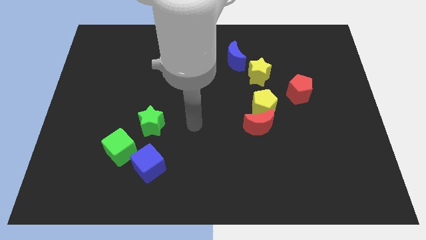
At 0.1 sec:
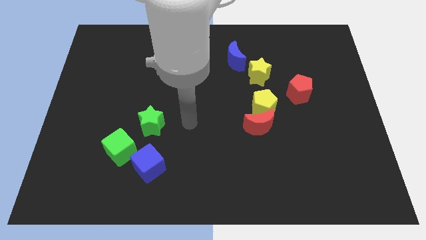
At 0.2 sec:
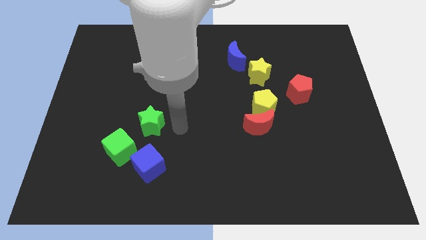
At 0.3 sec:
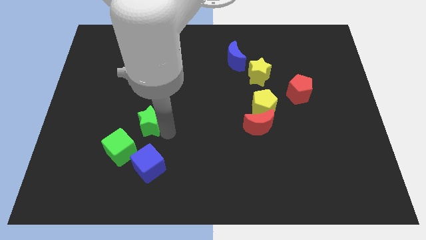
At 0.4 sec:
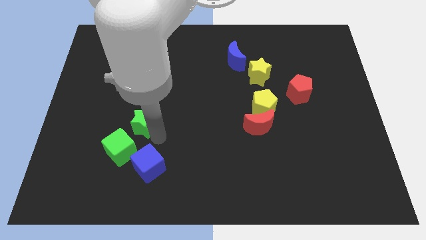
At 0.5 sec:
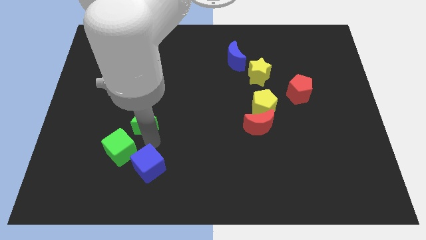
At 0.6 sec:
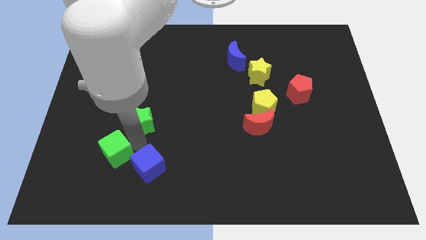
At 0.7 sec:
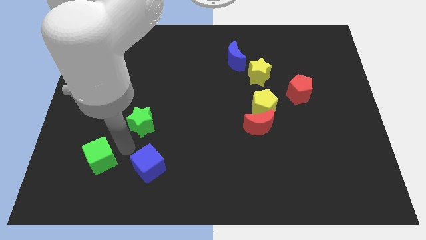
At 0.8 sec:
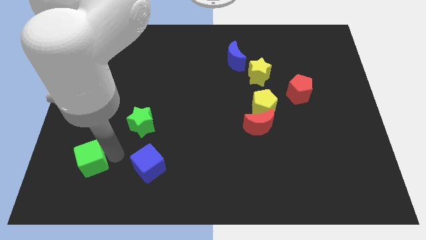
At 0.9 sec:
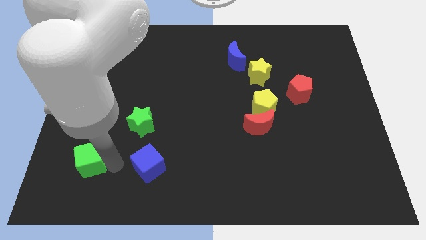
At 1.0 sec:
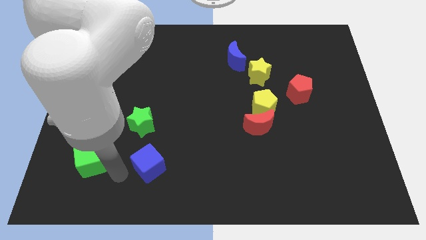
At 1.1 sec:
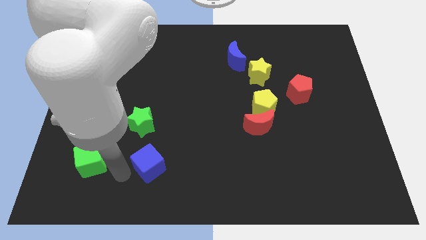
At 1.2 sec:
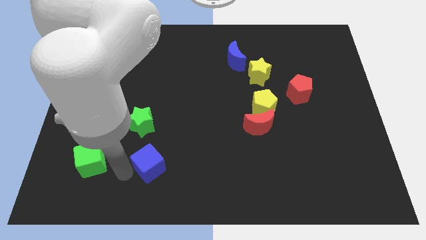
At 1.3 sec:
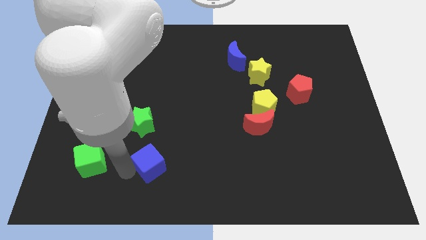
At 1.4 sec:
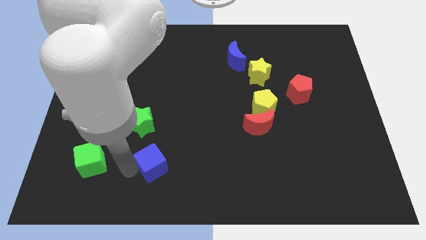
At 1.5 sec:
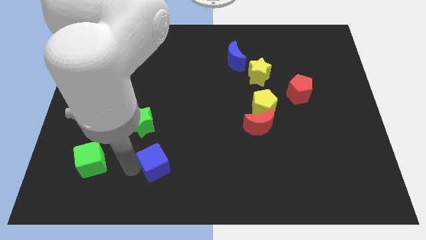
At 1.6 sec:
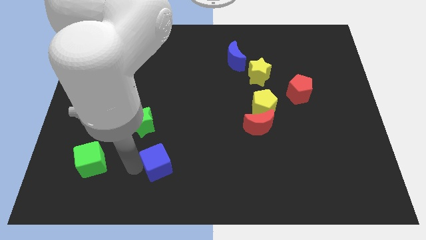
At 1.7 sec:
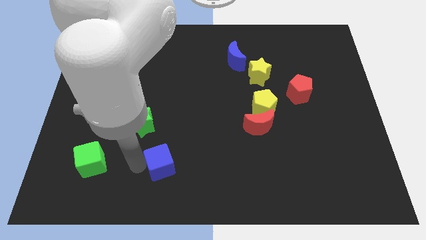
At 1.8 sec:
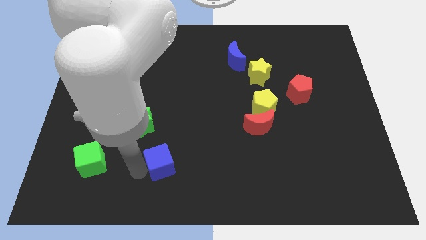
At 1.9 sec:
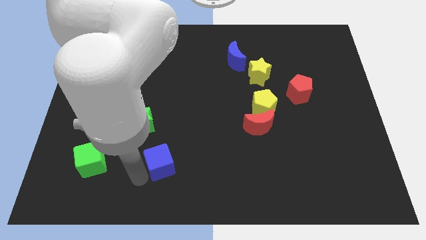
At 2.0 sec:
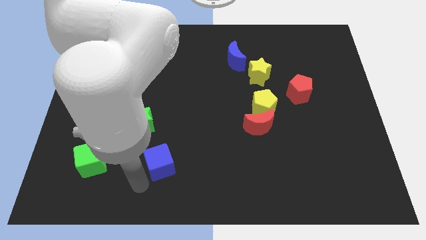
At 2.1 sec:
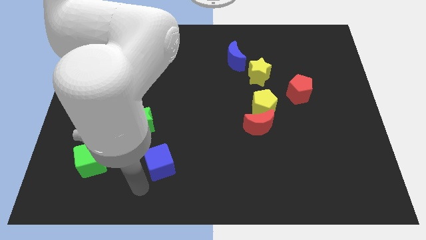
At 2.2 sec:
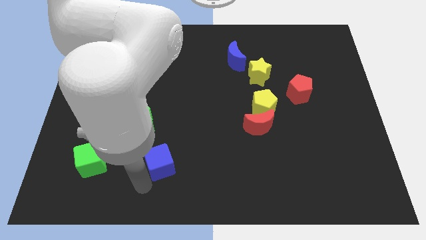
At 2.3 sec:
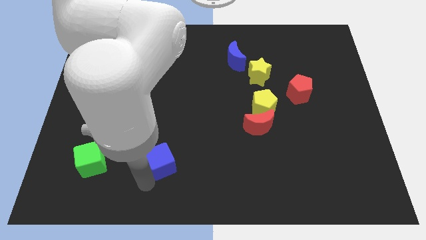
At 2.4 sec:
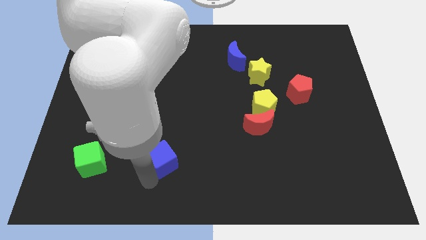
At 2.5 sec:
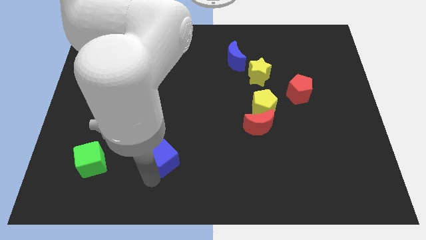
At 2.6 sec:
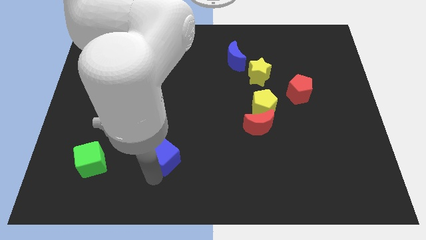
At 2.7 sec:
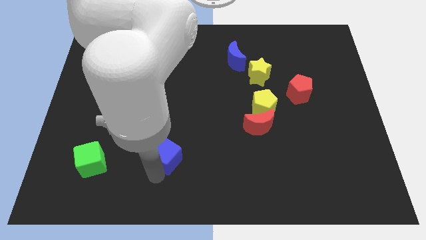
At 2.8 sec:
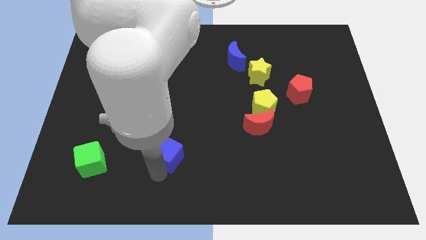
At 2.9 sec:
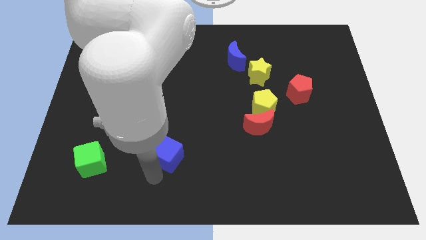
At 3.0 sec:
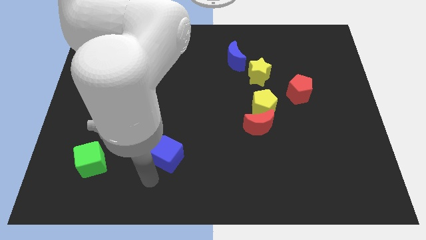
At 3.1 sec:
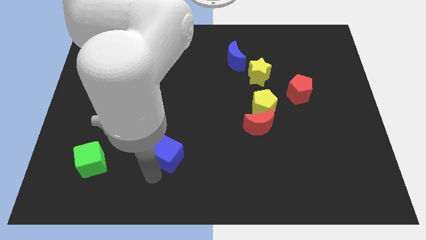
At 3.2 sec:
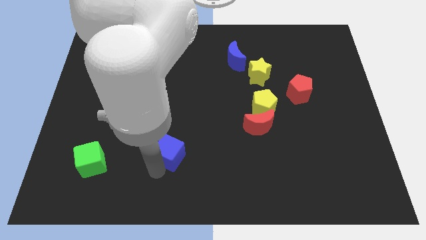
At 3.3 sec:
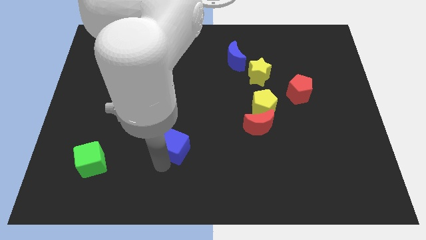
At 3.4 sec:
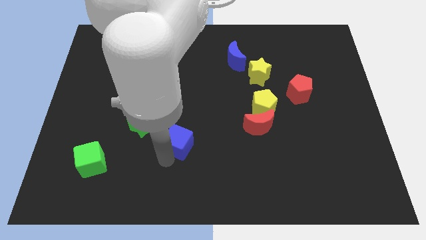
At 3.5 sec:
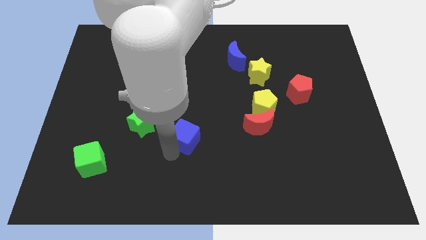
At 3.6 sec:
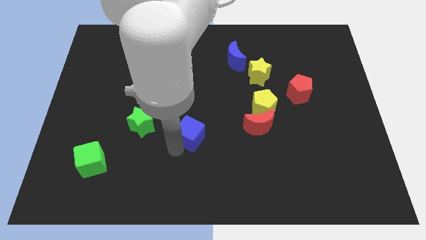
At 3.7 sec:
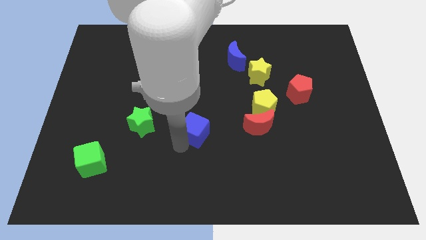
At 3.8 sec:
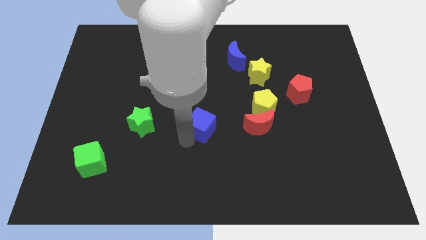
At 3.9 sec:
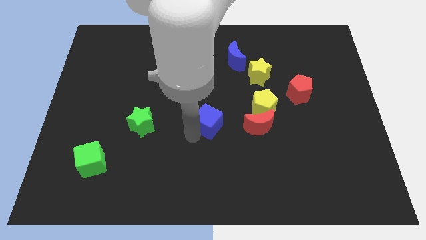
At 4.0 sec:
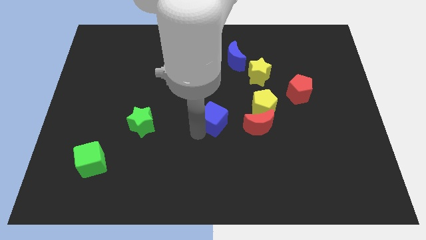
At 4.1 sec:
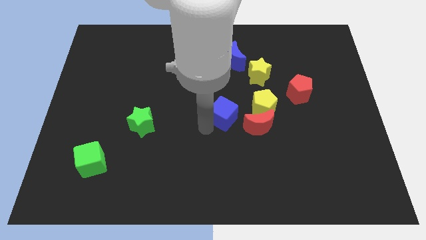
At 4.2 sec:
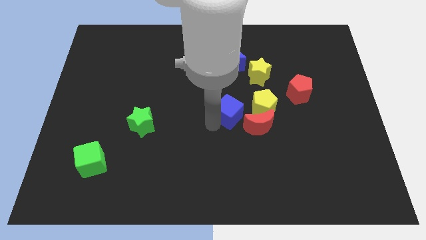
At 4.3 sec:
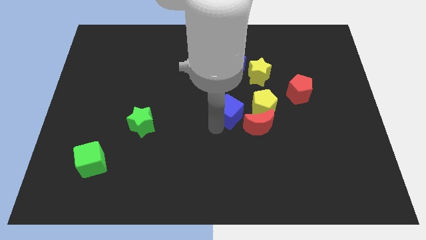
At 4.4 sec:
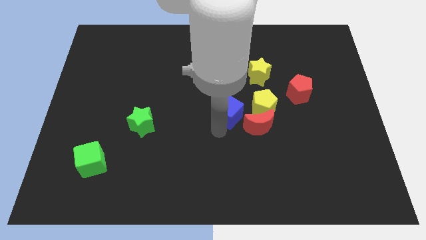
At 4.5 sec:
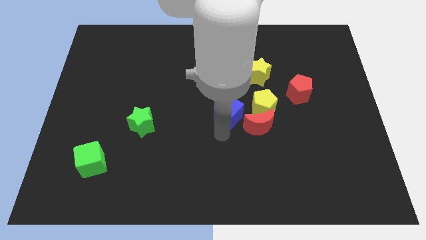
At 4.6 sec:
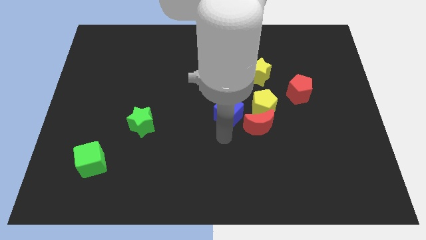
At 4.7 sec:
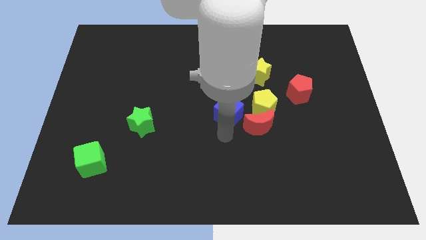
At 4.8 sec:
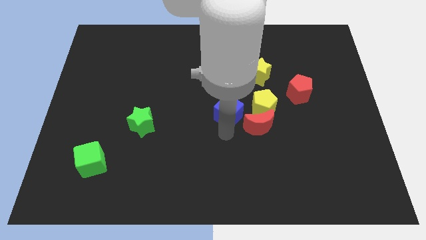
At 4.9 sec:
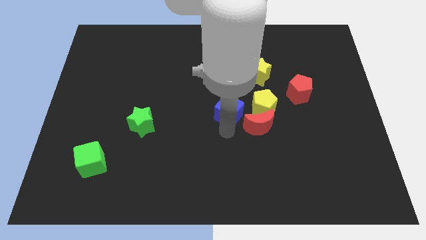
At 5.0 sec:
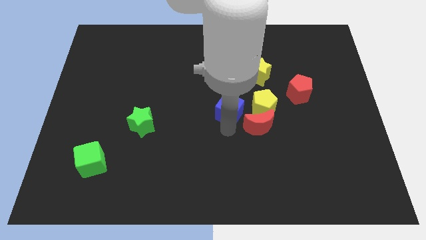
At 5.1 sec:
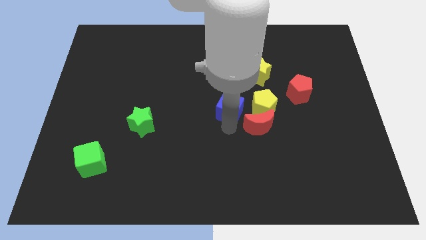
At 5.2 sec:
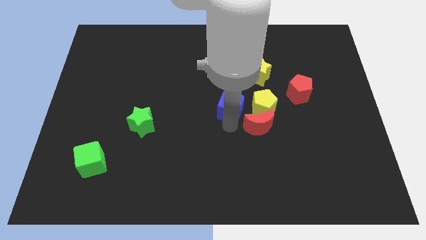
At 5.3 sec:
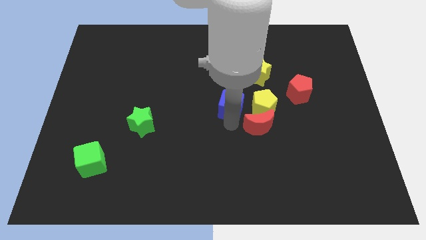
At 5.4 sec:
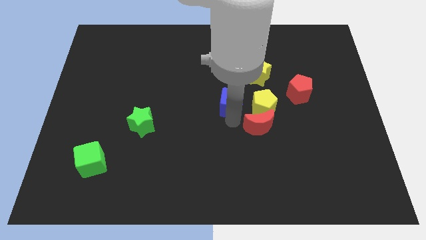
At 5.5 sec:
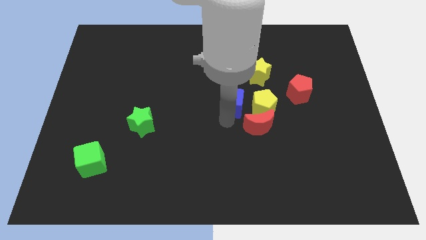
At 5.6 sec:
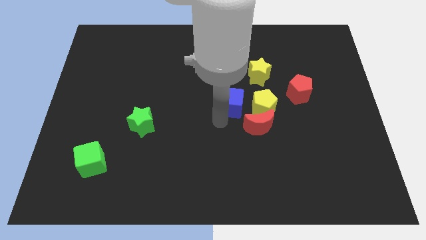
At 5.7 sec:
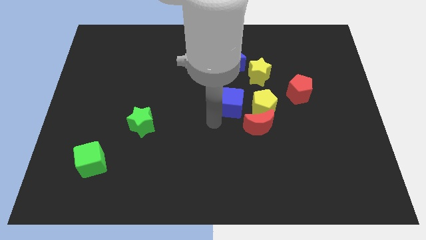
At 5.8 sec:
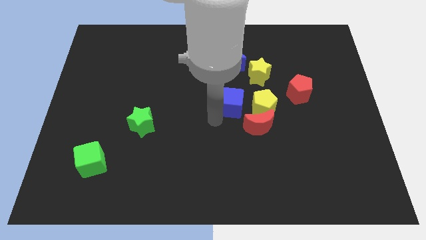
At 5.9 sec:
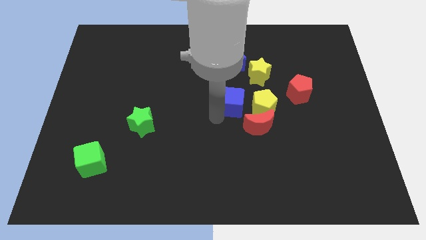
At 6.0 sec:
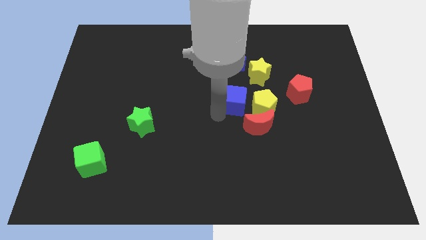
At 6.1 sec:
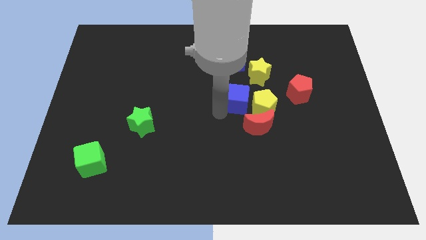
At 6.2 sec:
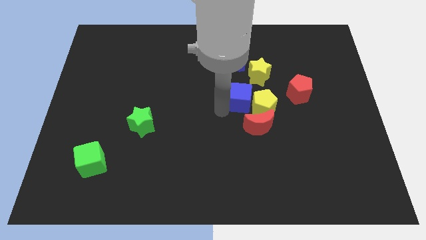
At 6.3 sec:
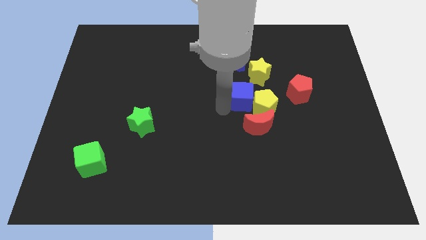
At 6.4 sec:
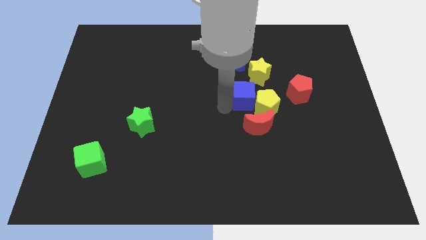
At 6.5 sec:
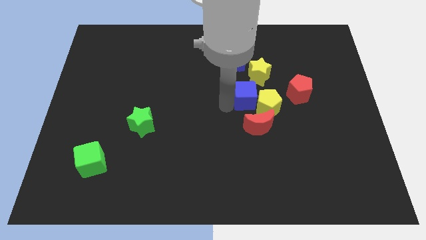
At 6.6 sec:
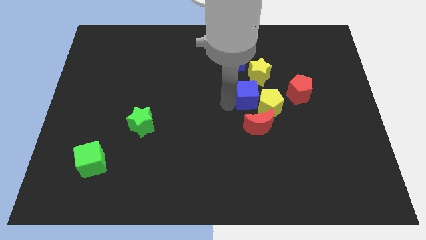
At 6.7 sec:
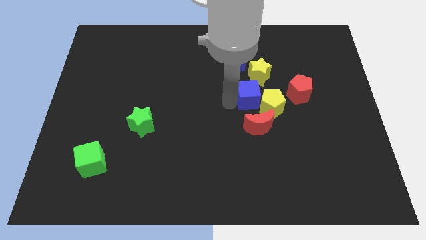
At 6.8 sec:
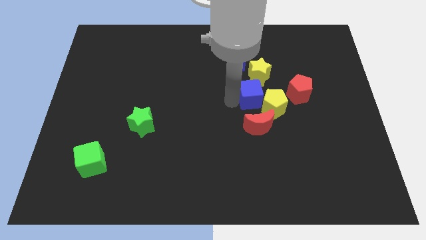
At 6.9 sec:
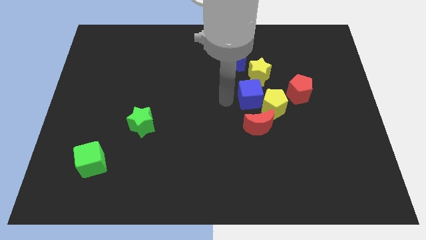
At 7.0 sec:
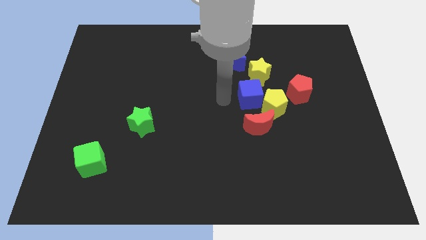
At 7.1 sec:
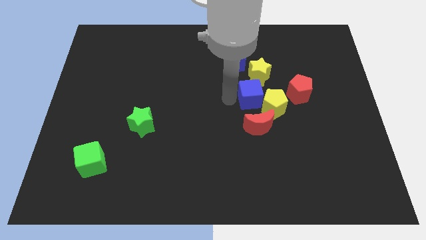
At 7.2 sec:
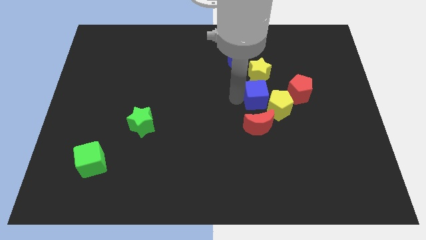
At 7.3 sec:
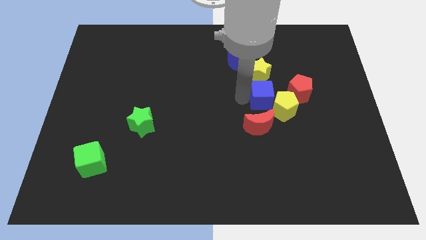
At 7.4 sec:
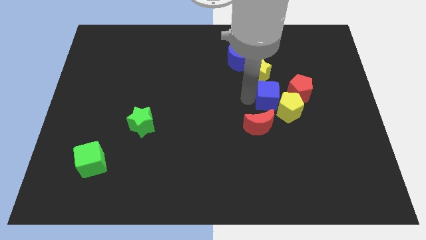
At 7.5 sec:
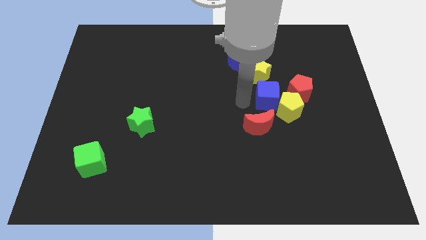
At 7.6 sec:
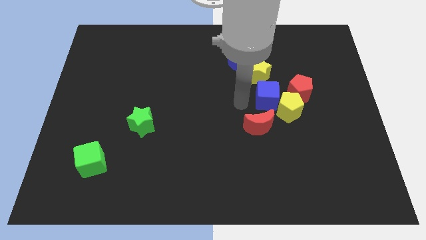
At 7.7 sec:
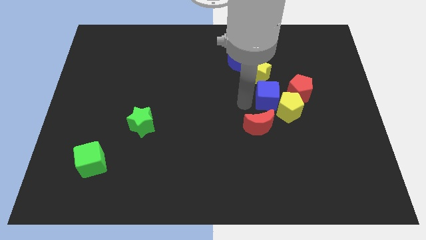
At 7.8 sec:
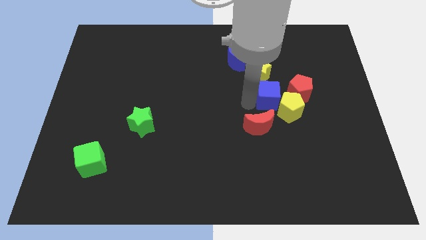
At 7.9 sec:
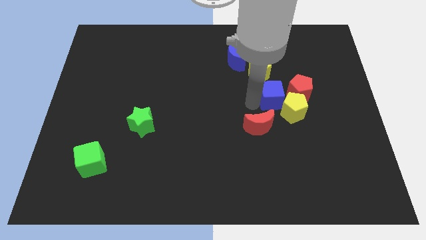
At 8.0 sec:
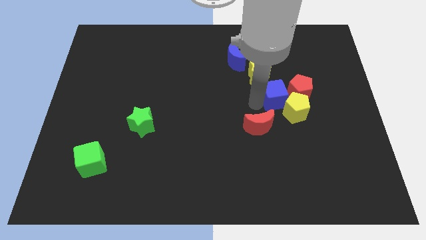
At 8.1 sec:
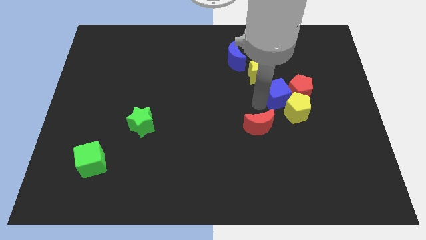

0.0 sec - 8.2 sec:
put the blue cube next to the red pentagon
